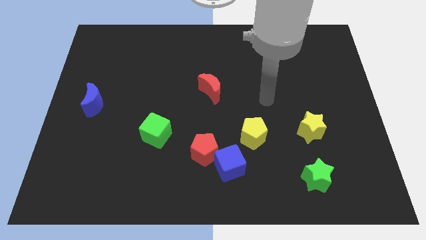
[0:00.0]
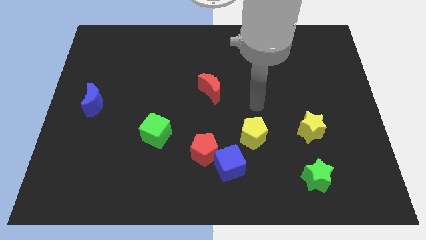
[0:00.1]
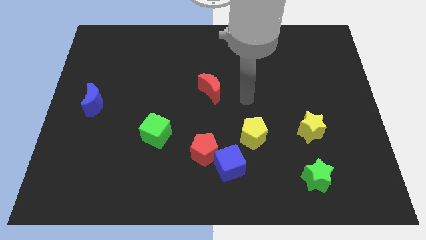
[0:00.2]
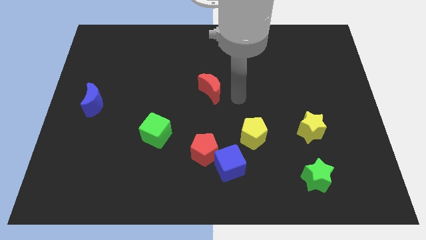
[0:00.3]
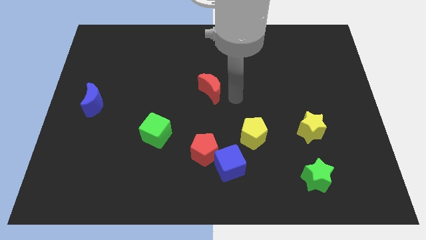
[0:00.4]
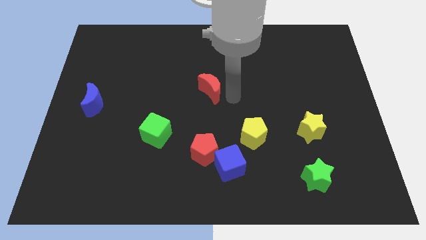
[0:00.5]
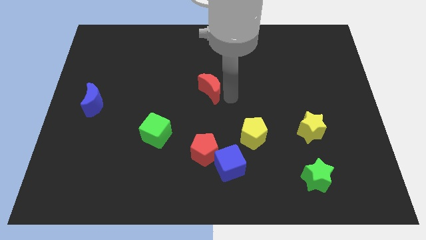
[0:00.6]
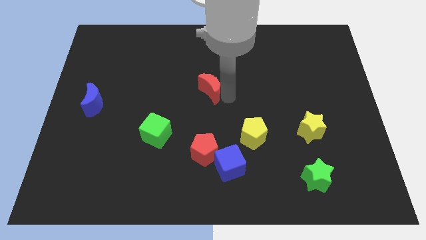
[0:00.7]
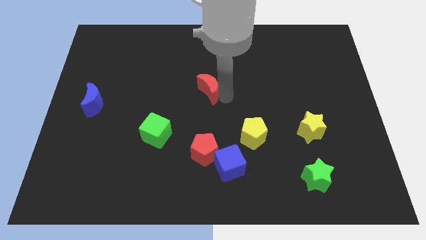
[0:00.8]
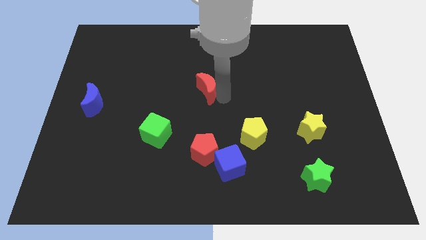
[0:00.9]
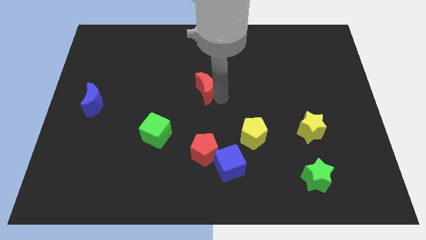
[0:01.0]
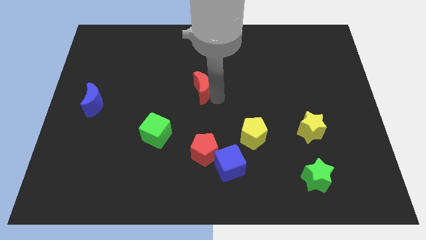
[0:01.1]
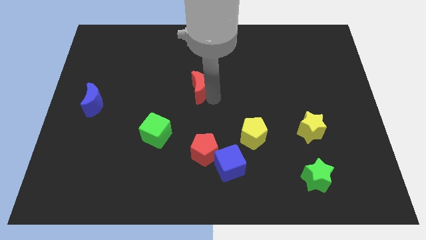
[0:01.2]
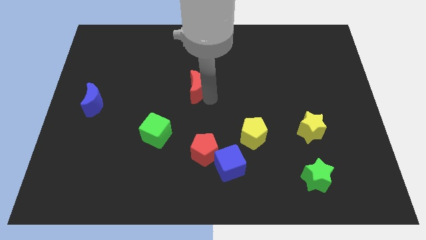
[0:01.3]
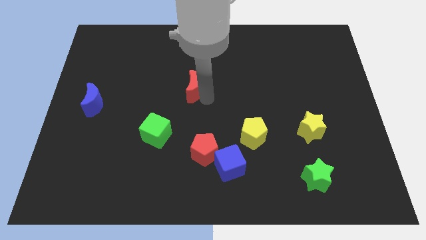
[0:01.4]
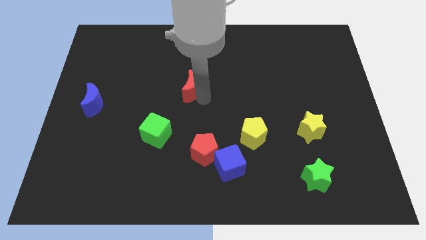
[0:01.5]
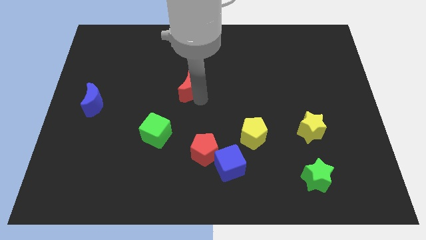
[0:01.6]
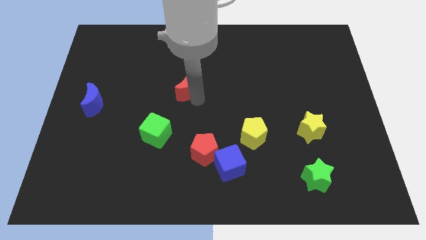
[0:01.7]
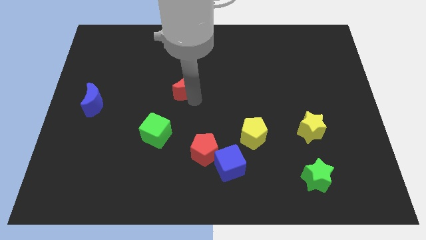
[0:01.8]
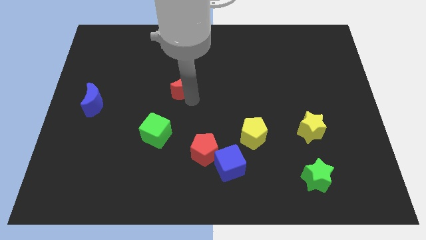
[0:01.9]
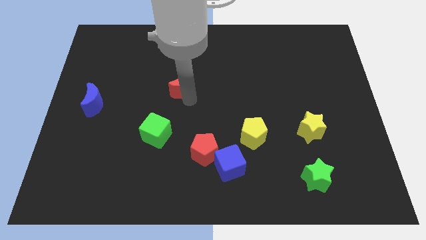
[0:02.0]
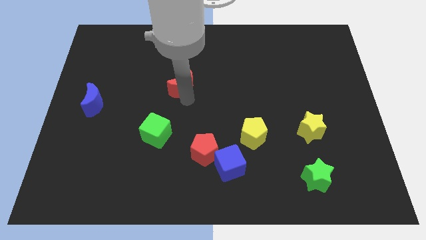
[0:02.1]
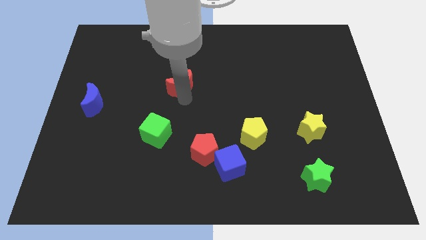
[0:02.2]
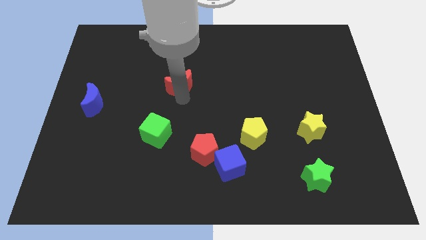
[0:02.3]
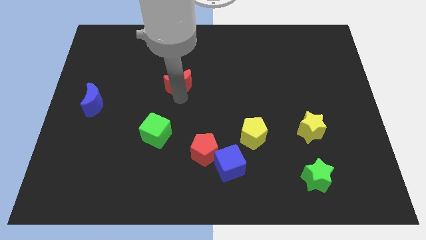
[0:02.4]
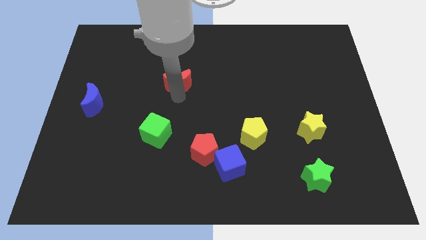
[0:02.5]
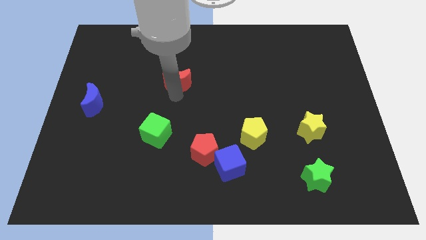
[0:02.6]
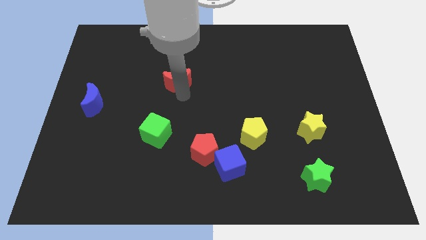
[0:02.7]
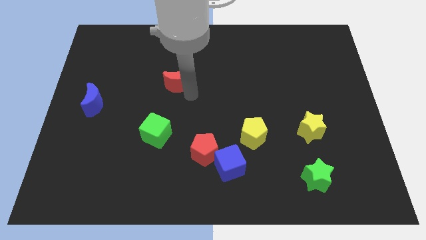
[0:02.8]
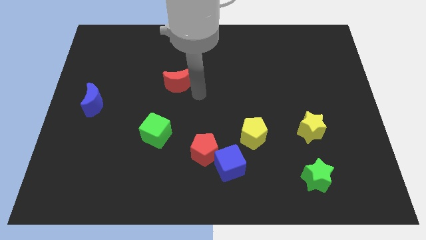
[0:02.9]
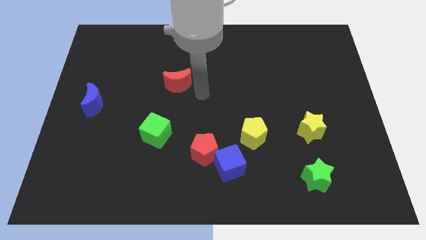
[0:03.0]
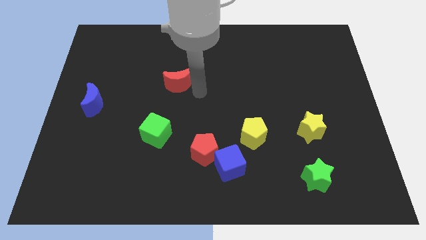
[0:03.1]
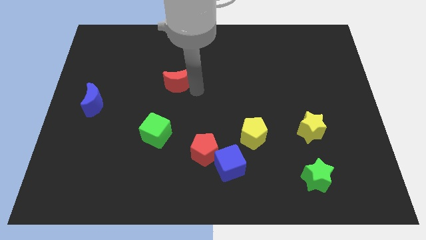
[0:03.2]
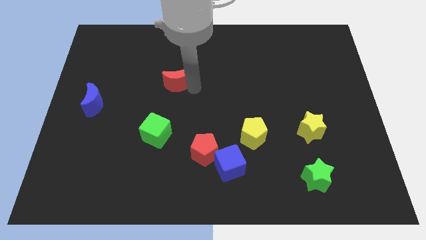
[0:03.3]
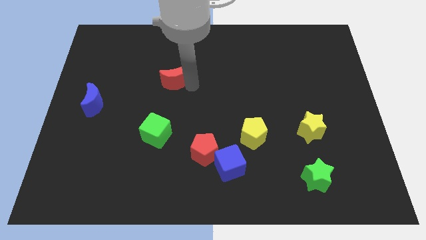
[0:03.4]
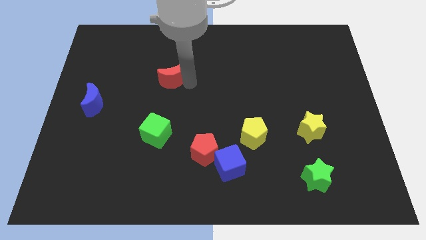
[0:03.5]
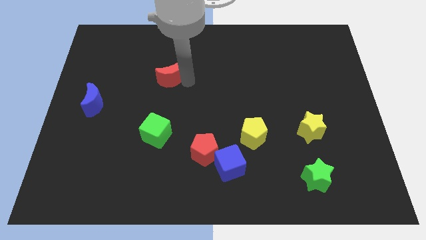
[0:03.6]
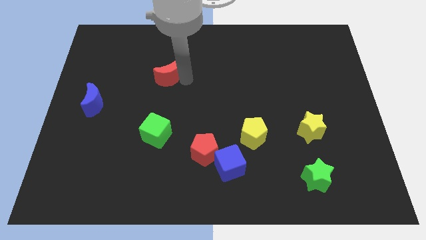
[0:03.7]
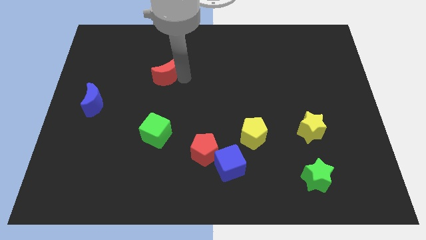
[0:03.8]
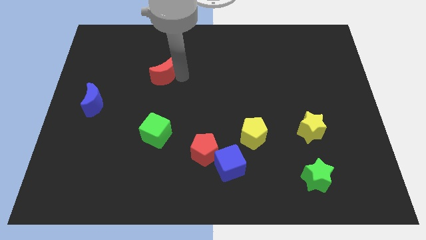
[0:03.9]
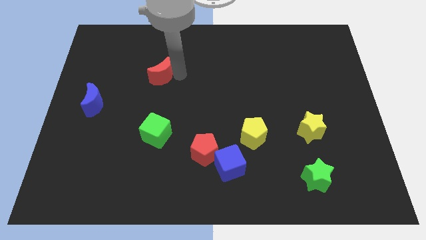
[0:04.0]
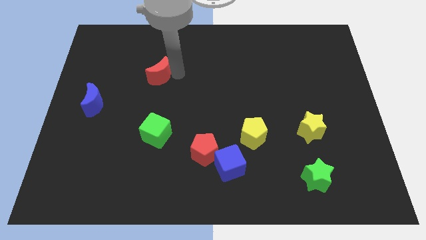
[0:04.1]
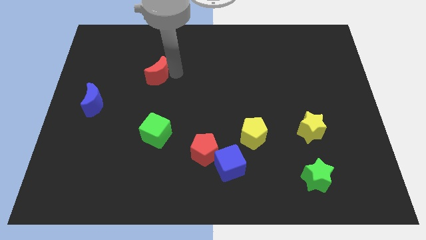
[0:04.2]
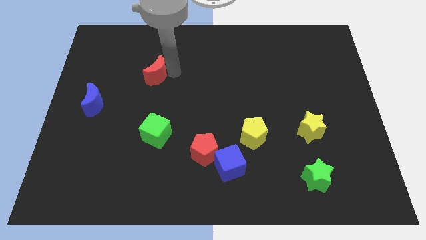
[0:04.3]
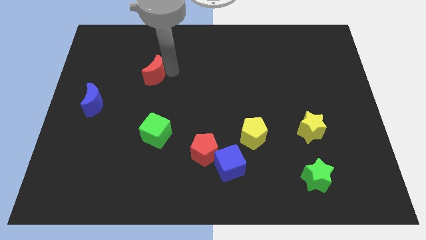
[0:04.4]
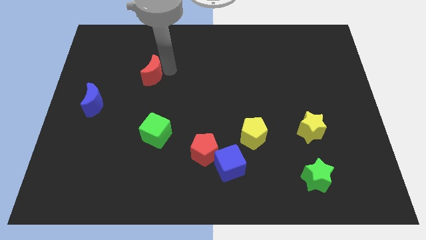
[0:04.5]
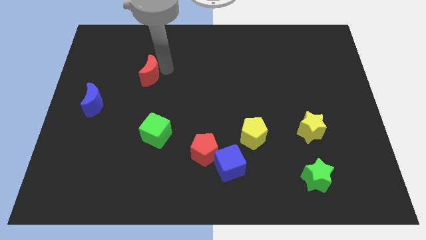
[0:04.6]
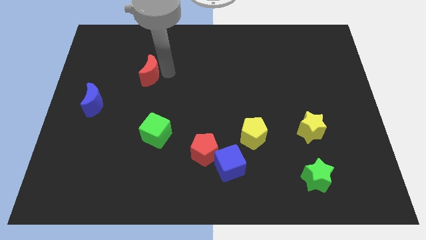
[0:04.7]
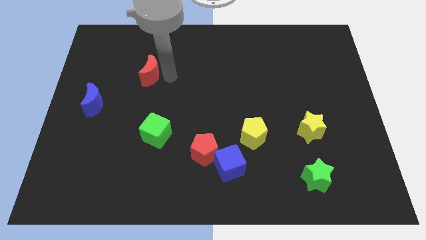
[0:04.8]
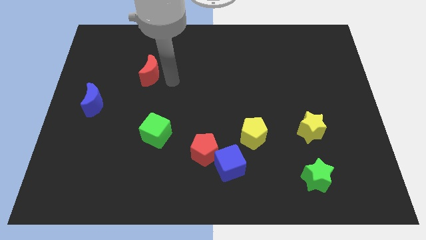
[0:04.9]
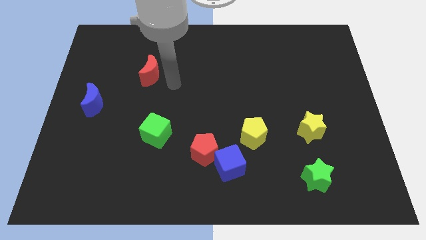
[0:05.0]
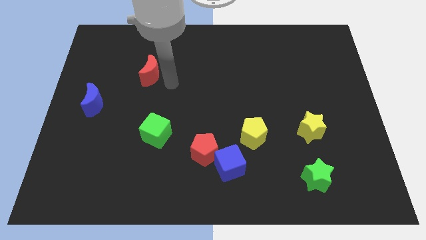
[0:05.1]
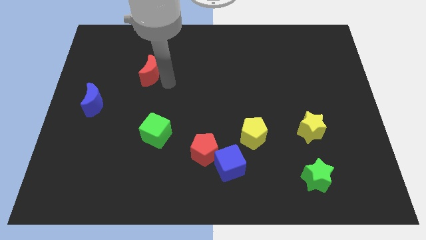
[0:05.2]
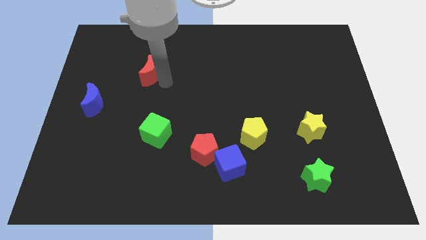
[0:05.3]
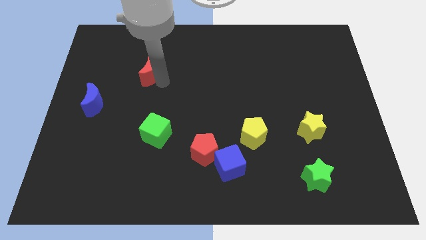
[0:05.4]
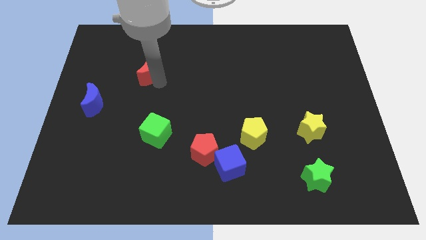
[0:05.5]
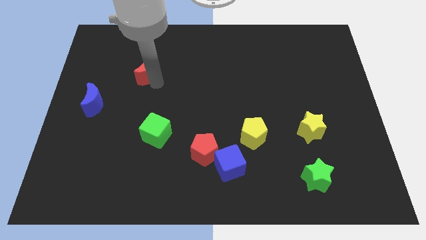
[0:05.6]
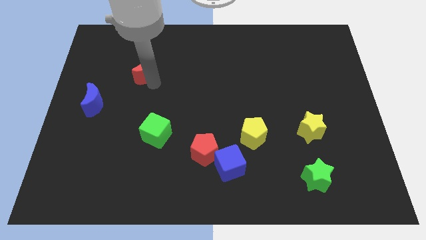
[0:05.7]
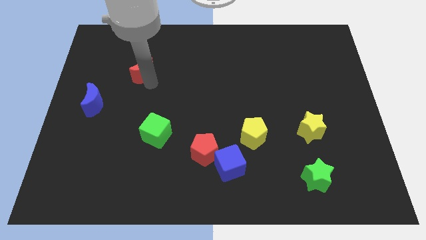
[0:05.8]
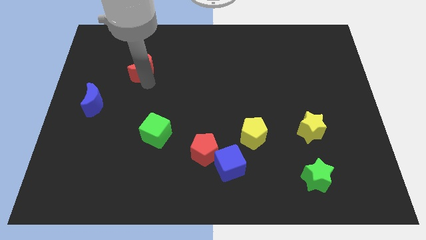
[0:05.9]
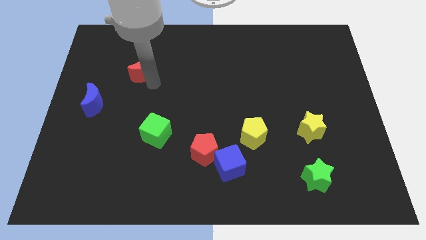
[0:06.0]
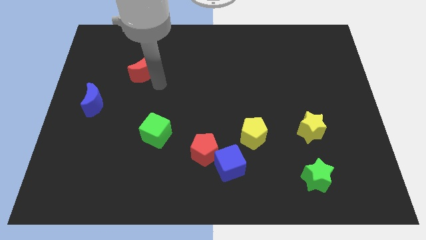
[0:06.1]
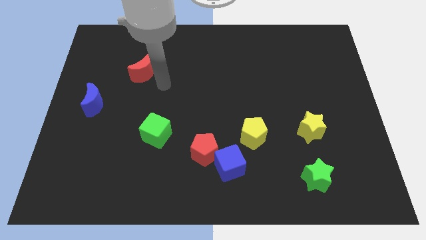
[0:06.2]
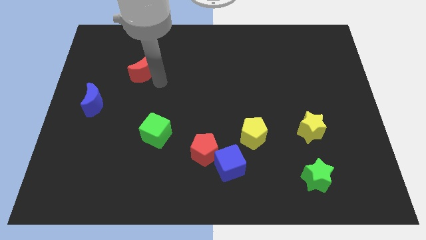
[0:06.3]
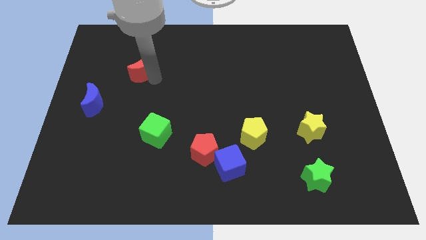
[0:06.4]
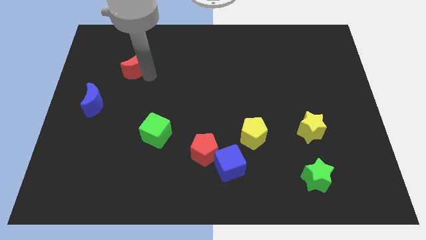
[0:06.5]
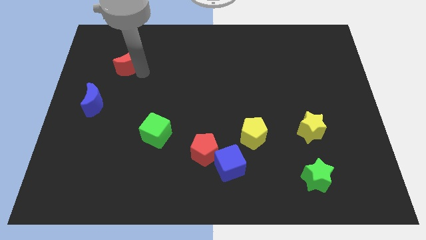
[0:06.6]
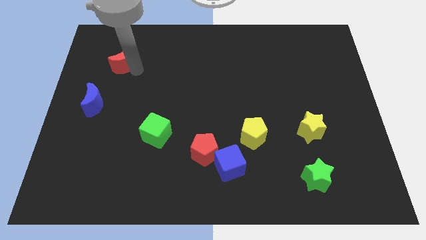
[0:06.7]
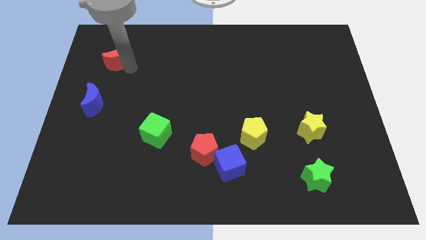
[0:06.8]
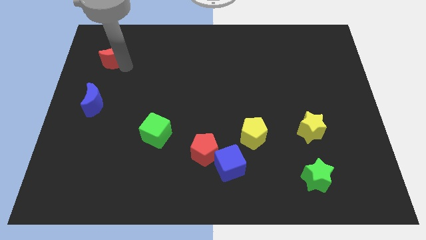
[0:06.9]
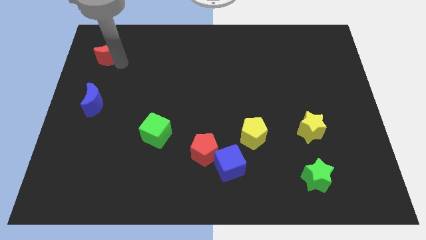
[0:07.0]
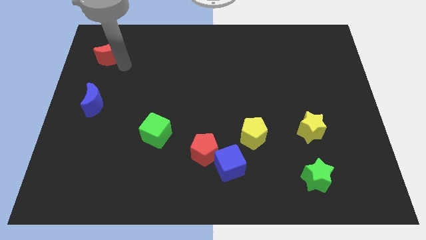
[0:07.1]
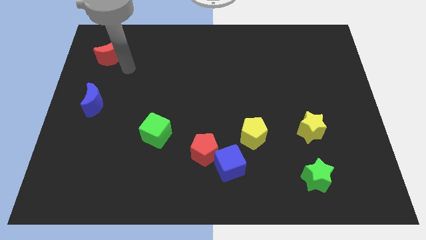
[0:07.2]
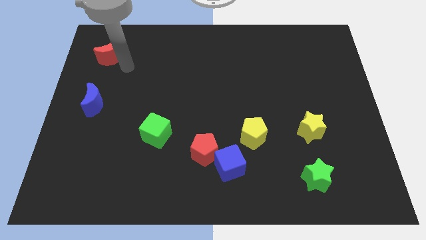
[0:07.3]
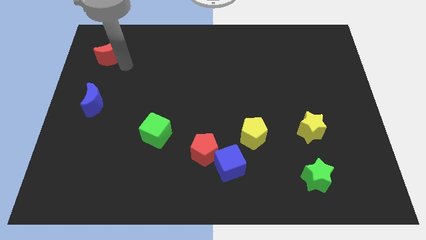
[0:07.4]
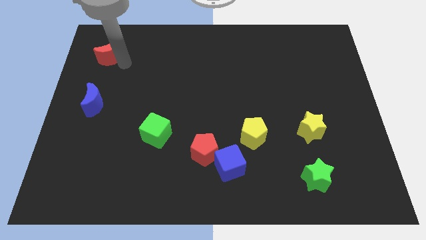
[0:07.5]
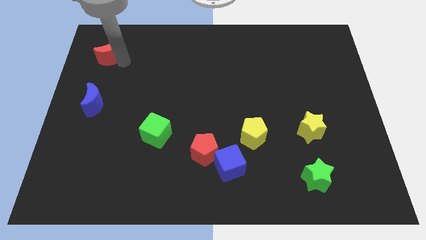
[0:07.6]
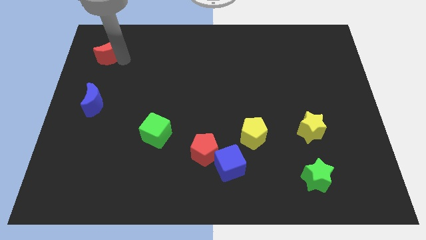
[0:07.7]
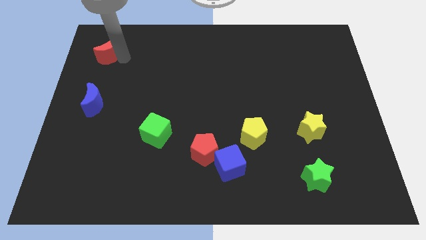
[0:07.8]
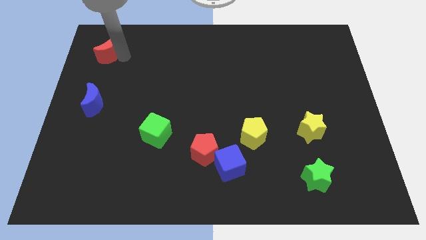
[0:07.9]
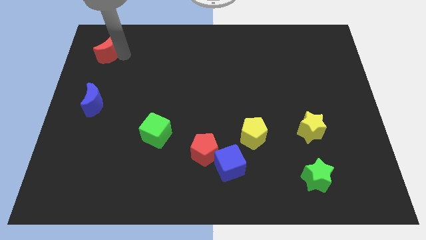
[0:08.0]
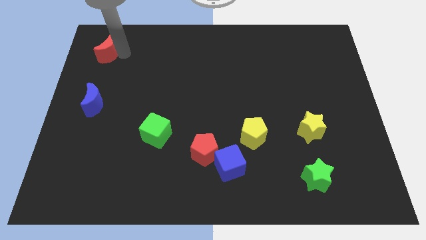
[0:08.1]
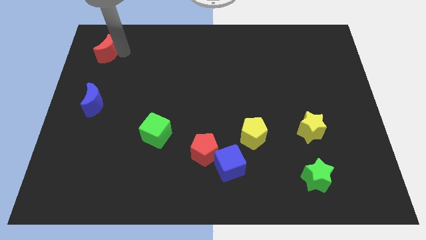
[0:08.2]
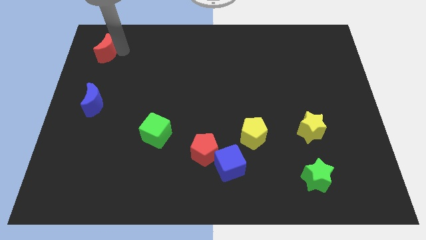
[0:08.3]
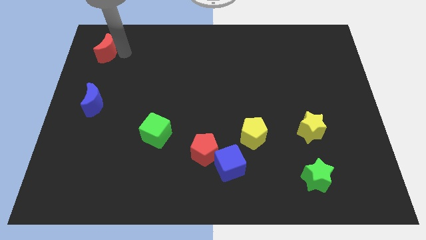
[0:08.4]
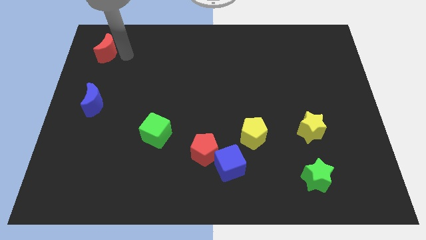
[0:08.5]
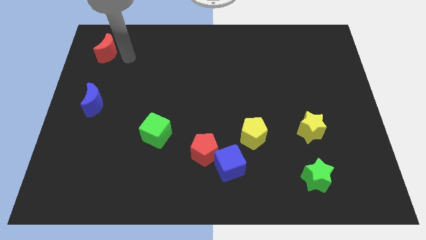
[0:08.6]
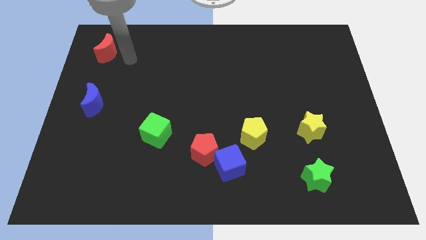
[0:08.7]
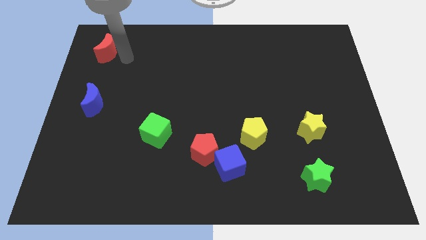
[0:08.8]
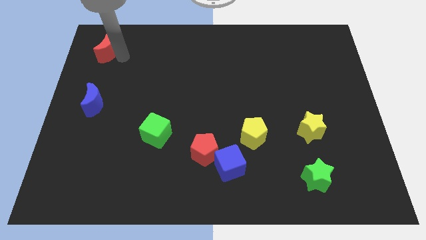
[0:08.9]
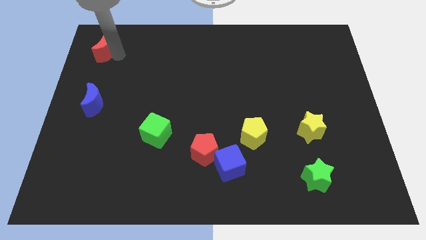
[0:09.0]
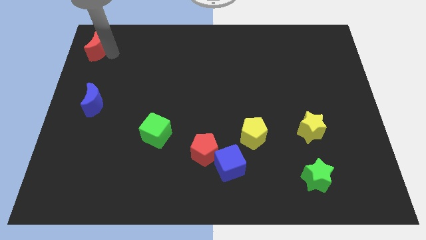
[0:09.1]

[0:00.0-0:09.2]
push the red moon to the top left of the board
